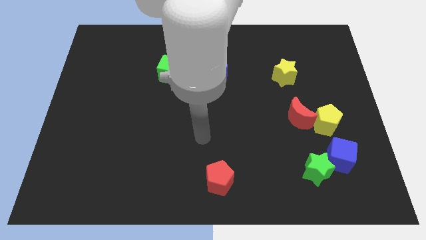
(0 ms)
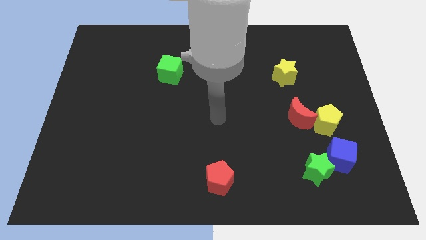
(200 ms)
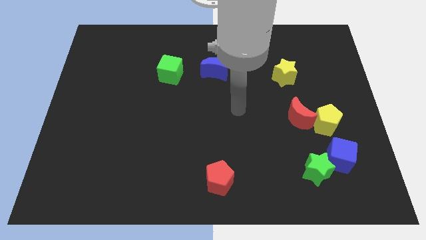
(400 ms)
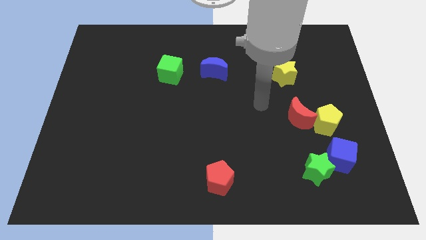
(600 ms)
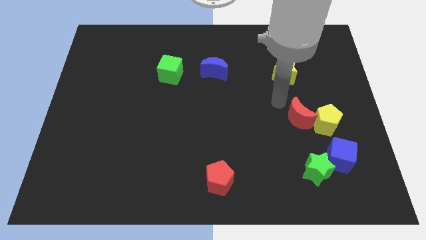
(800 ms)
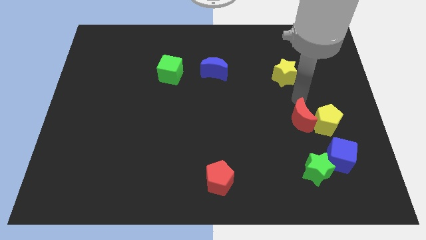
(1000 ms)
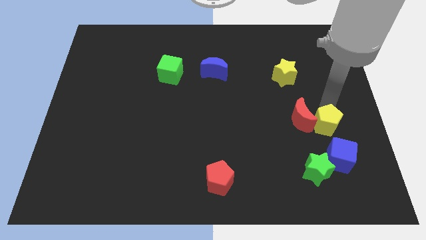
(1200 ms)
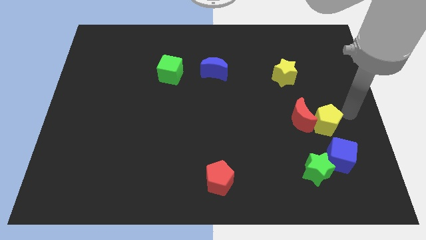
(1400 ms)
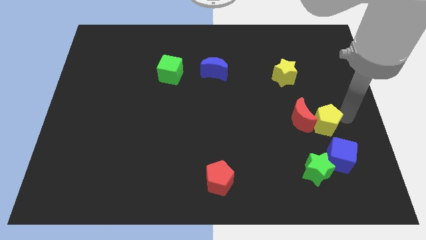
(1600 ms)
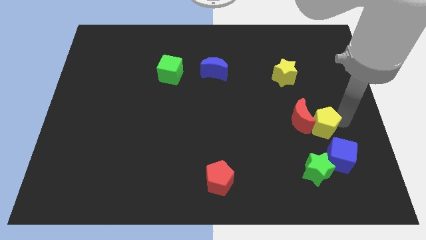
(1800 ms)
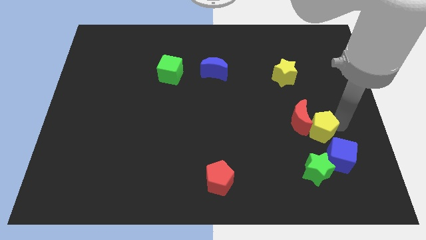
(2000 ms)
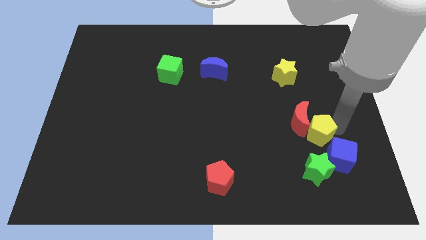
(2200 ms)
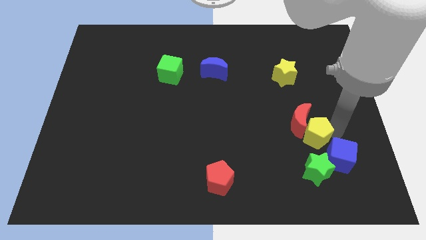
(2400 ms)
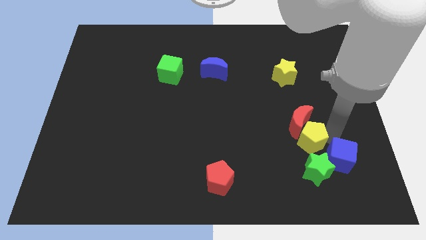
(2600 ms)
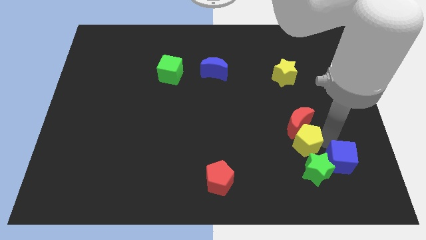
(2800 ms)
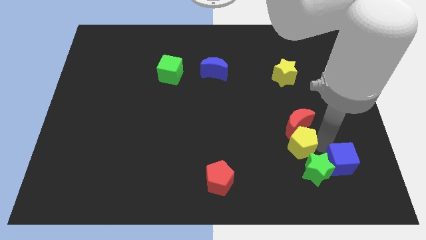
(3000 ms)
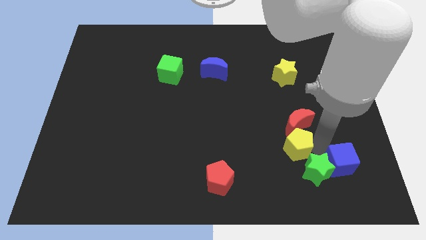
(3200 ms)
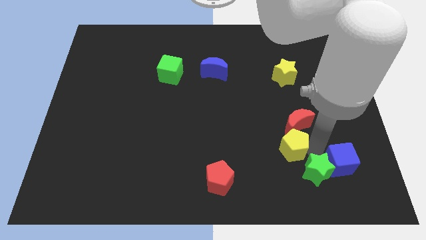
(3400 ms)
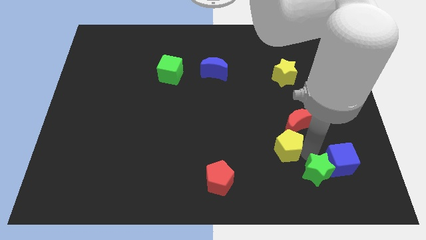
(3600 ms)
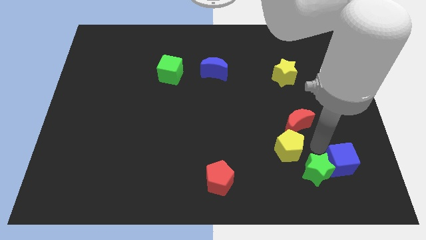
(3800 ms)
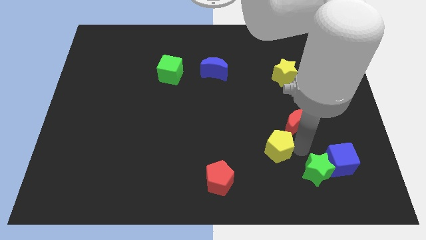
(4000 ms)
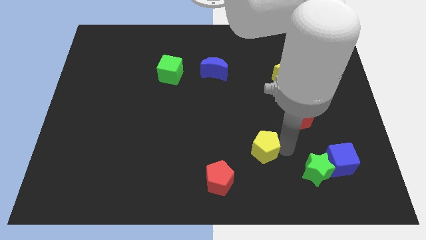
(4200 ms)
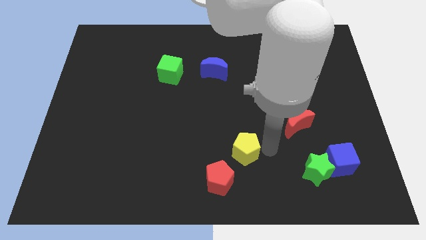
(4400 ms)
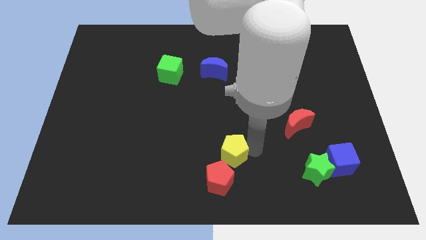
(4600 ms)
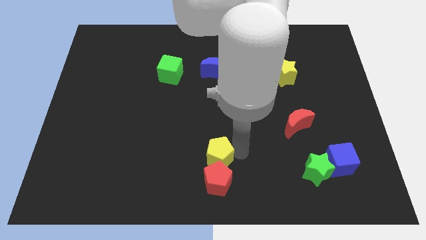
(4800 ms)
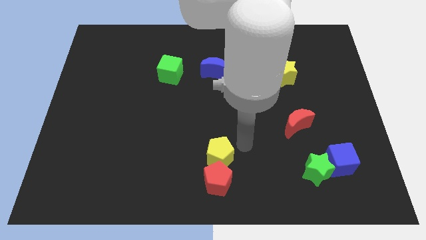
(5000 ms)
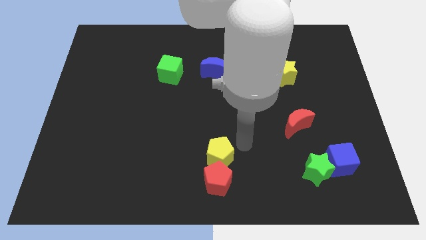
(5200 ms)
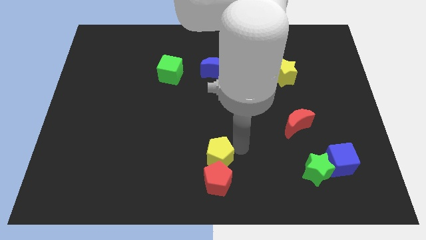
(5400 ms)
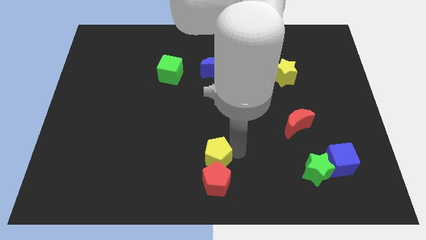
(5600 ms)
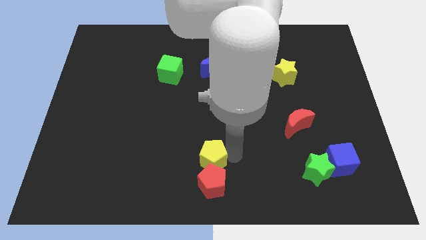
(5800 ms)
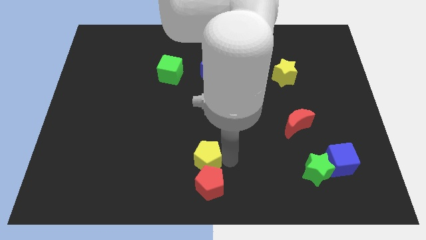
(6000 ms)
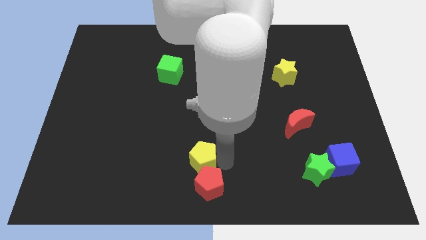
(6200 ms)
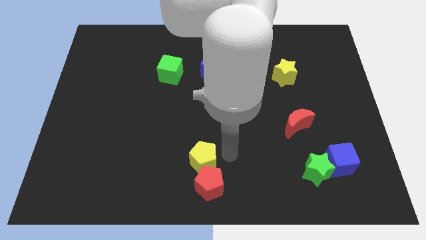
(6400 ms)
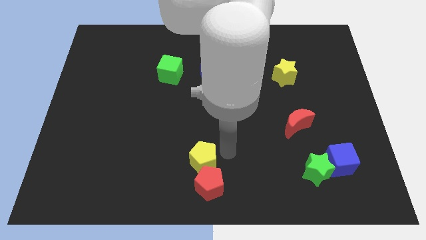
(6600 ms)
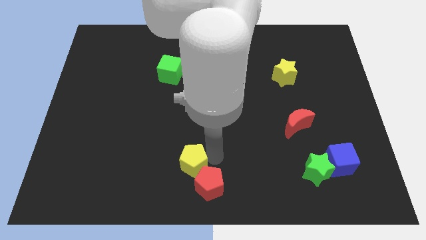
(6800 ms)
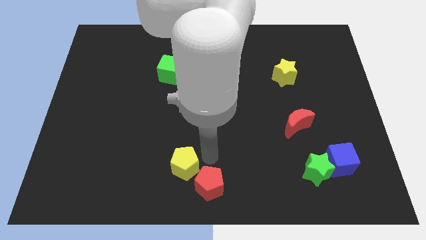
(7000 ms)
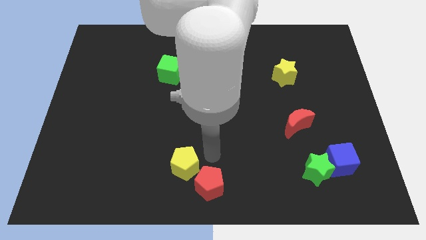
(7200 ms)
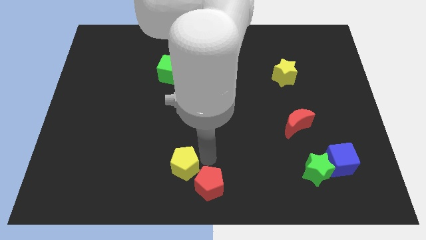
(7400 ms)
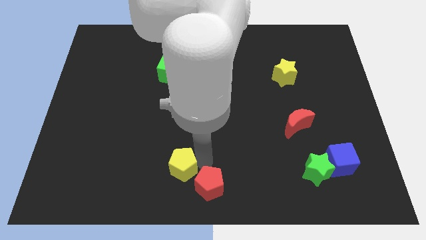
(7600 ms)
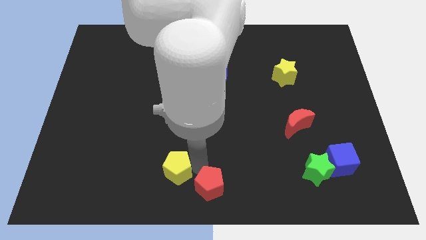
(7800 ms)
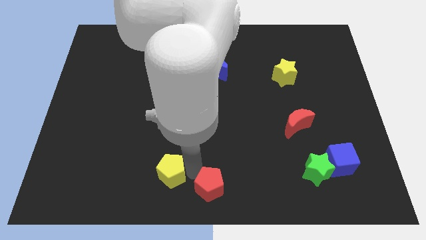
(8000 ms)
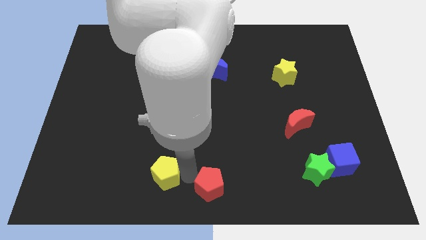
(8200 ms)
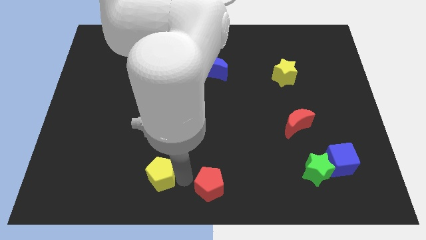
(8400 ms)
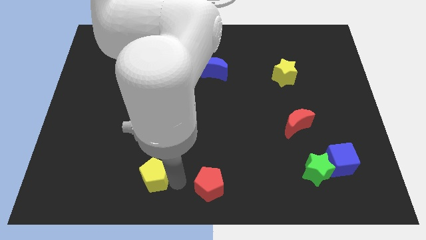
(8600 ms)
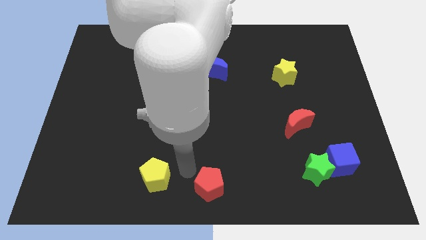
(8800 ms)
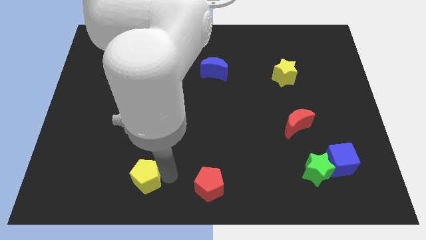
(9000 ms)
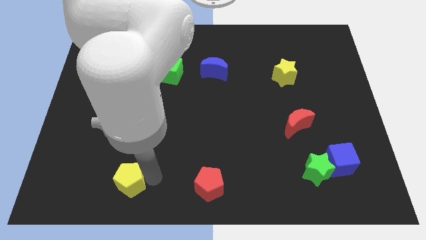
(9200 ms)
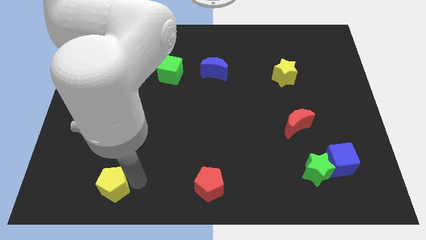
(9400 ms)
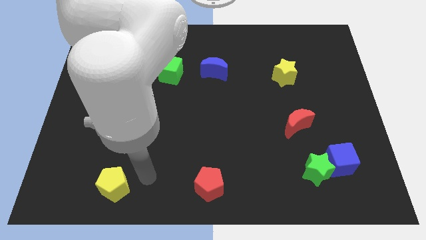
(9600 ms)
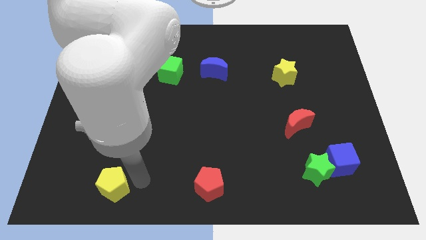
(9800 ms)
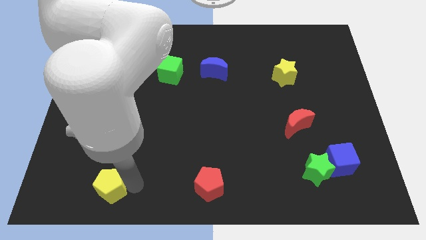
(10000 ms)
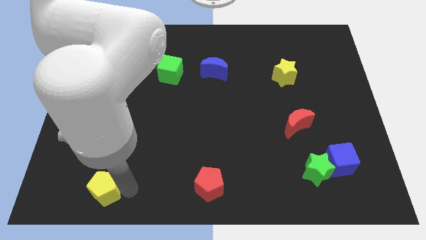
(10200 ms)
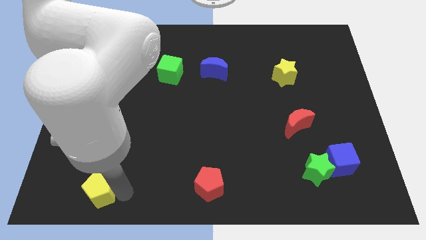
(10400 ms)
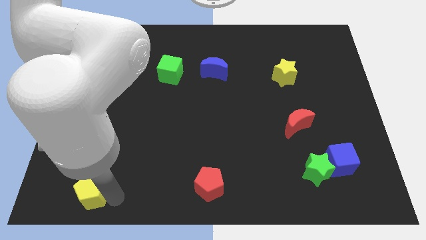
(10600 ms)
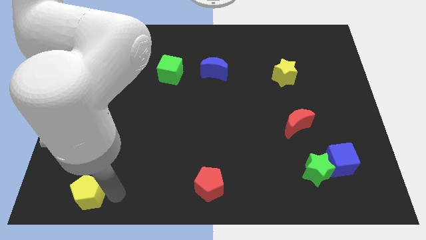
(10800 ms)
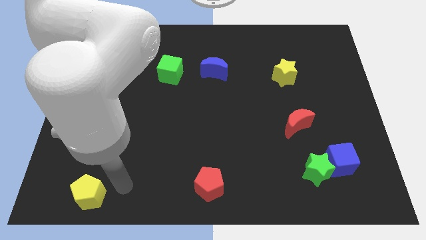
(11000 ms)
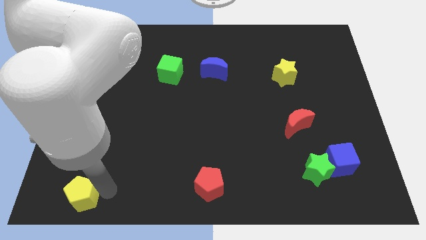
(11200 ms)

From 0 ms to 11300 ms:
put the yellow pentagon to the bottom left of the board

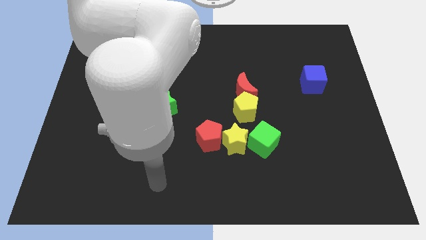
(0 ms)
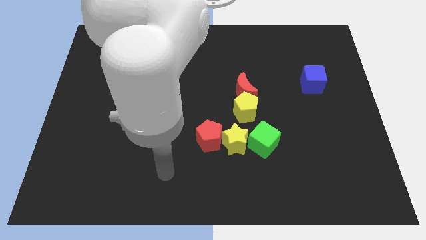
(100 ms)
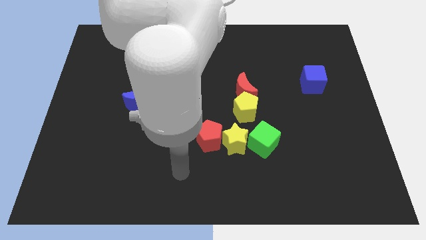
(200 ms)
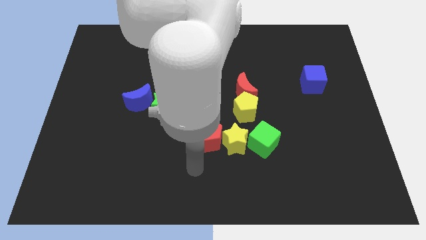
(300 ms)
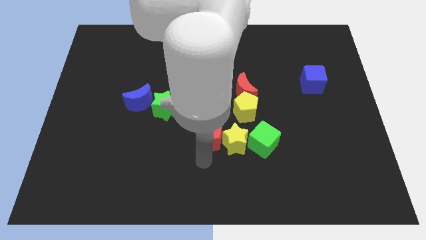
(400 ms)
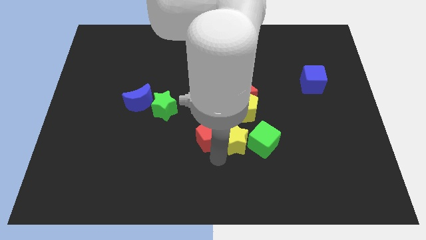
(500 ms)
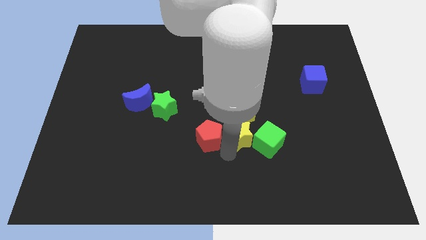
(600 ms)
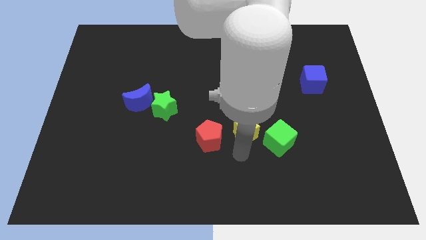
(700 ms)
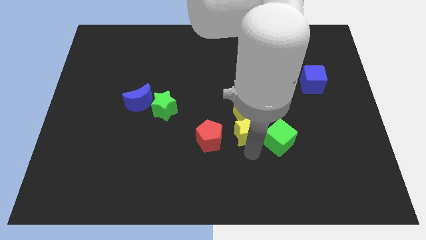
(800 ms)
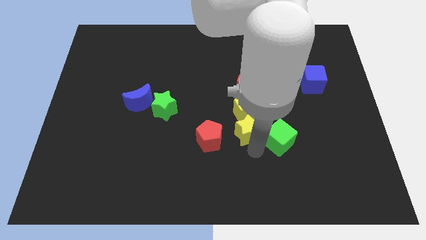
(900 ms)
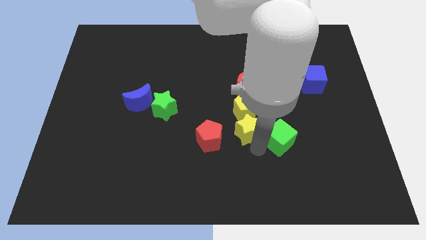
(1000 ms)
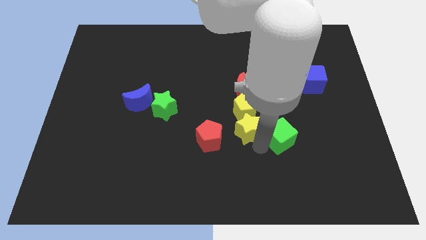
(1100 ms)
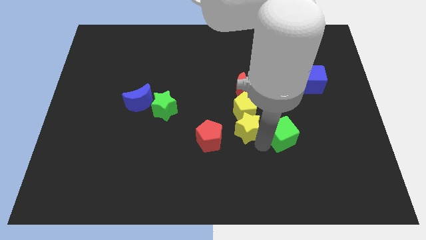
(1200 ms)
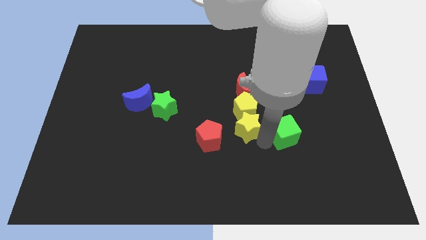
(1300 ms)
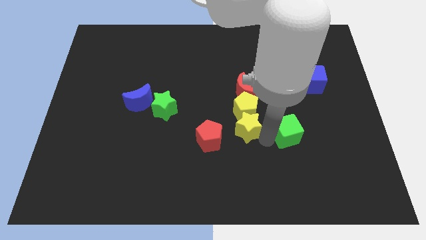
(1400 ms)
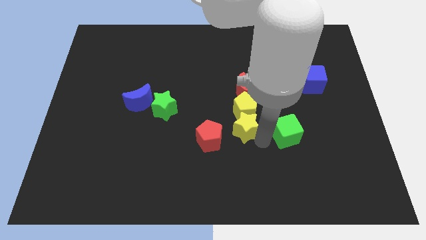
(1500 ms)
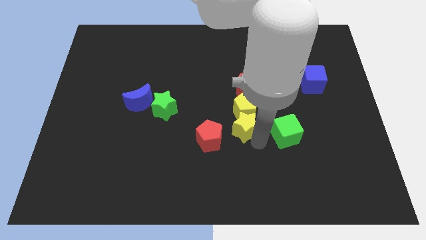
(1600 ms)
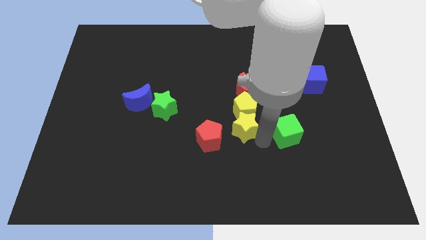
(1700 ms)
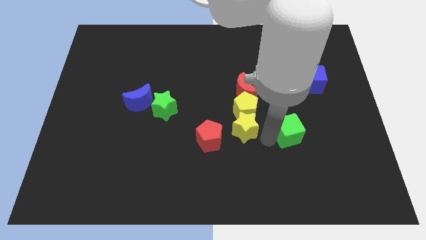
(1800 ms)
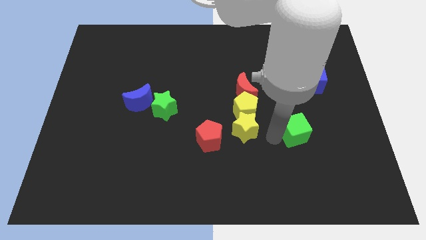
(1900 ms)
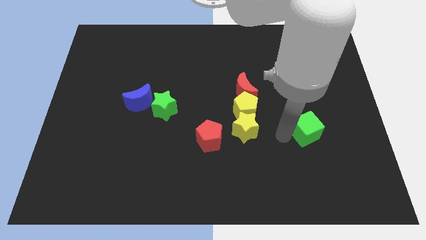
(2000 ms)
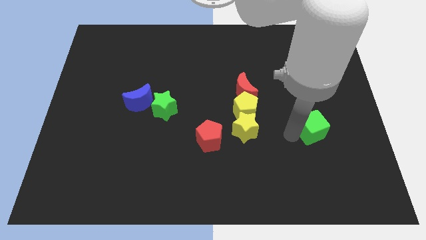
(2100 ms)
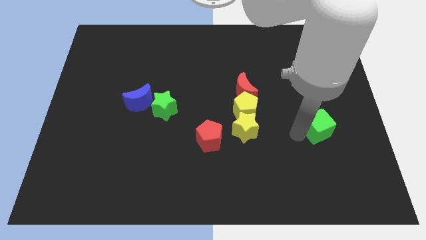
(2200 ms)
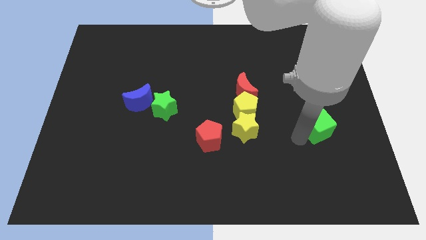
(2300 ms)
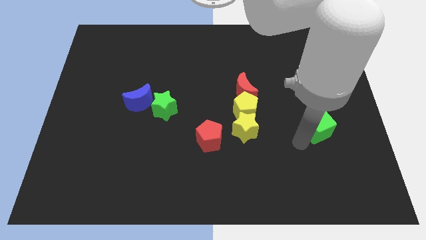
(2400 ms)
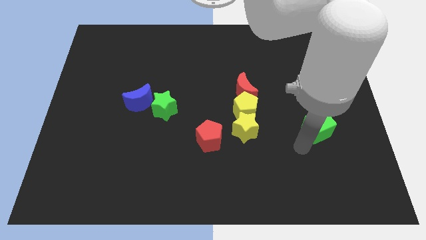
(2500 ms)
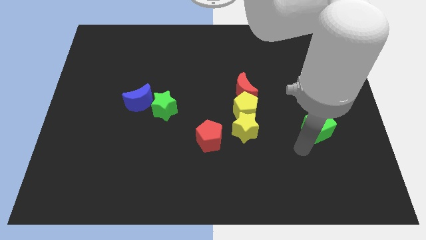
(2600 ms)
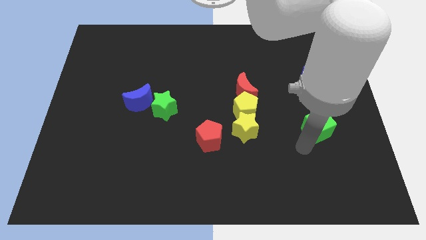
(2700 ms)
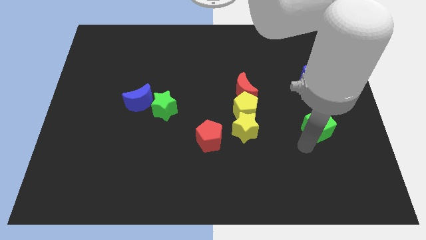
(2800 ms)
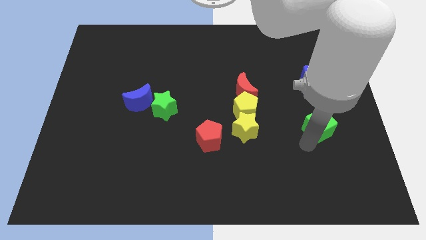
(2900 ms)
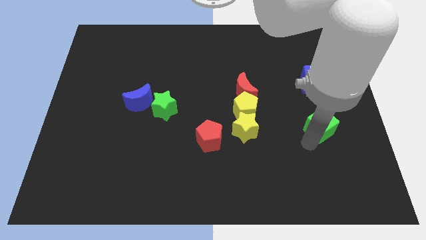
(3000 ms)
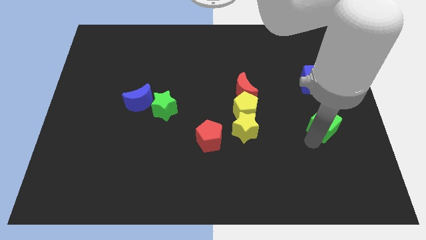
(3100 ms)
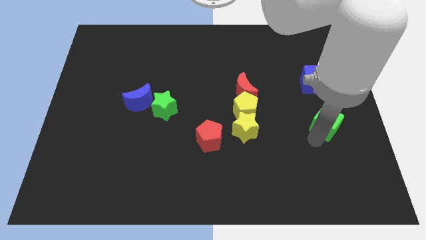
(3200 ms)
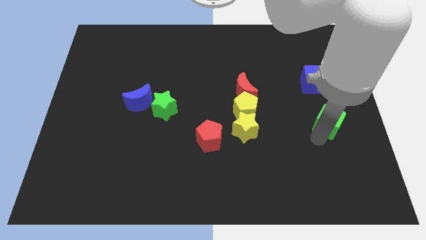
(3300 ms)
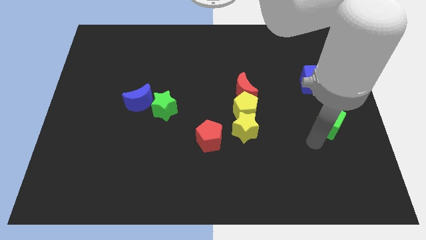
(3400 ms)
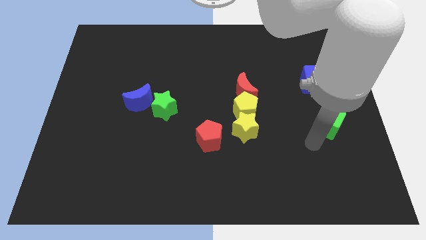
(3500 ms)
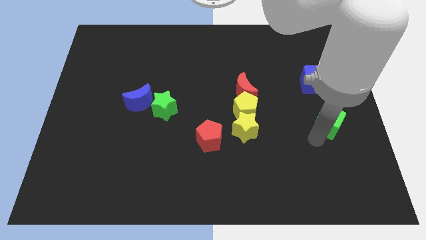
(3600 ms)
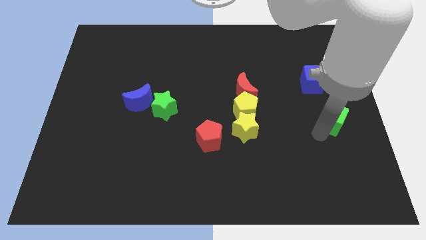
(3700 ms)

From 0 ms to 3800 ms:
put the green cube to the center right
